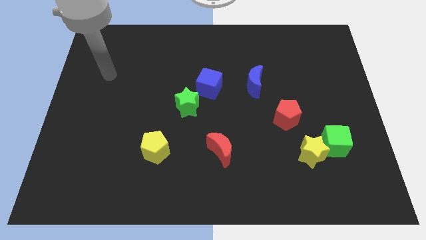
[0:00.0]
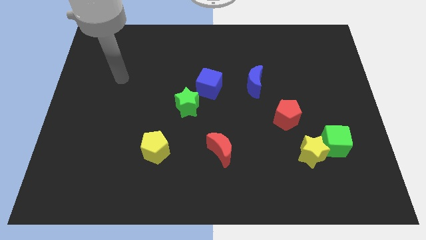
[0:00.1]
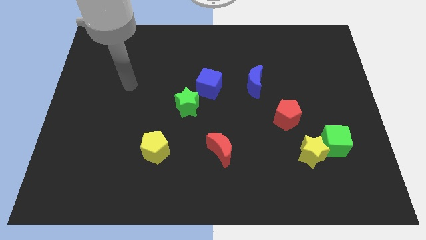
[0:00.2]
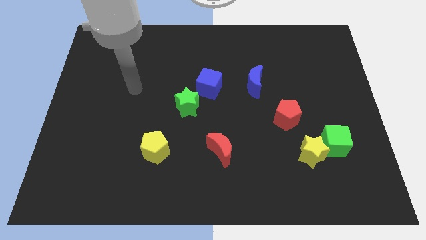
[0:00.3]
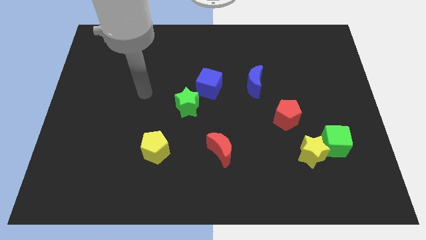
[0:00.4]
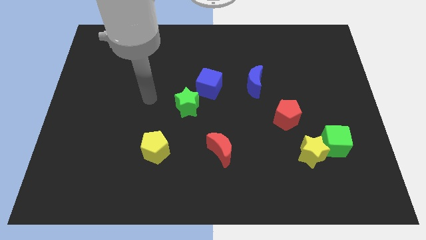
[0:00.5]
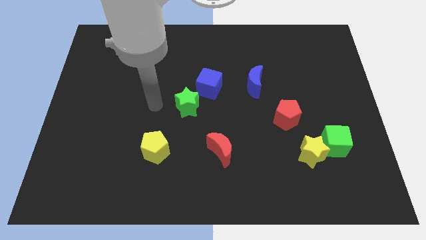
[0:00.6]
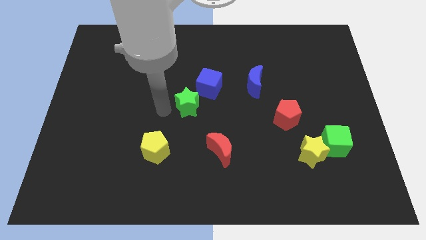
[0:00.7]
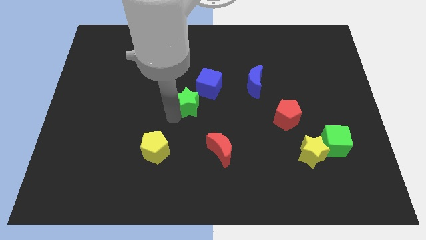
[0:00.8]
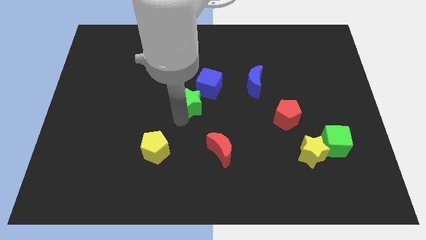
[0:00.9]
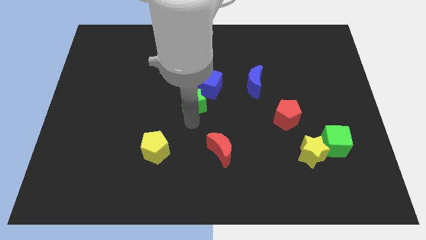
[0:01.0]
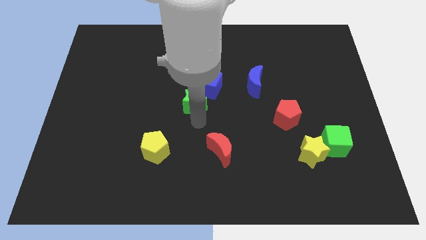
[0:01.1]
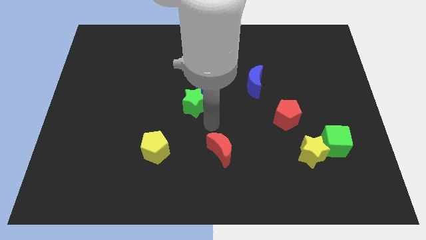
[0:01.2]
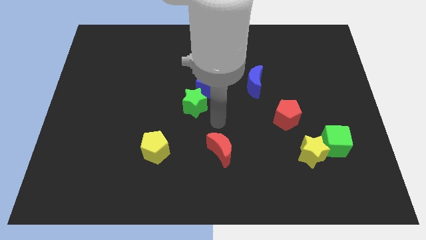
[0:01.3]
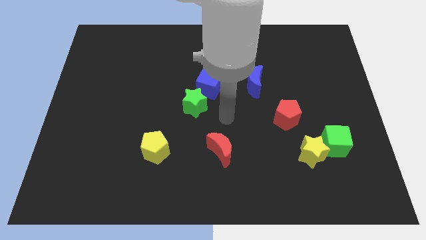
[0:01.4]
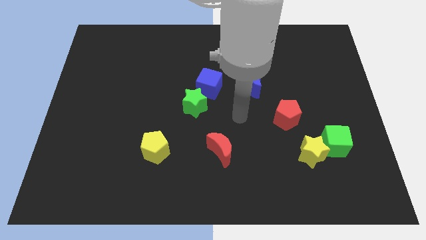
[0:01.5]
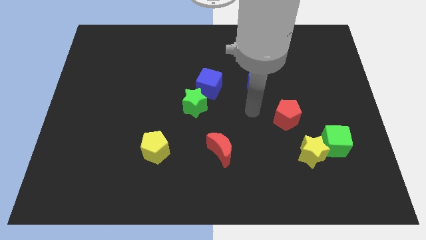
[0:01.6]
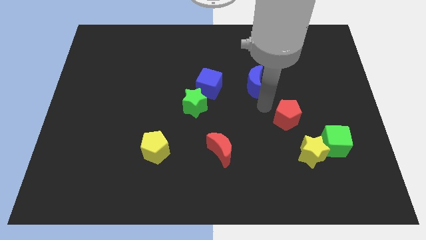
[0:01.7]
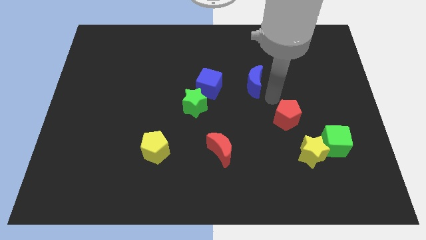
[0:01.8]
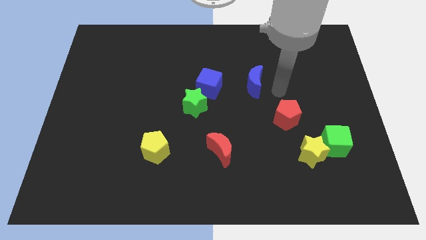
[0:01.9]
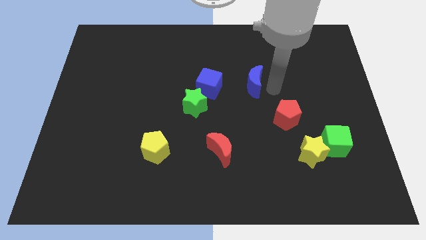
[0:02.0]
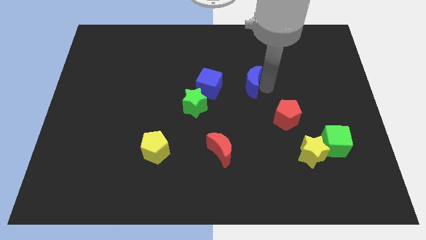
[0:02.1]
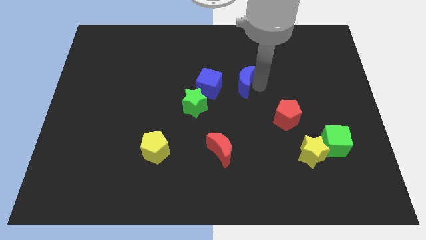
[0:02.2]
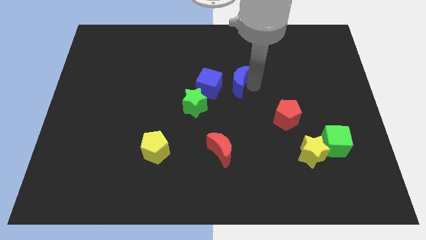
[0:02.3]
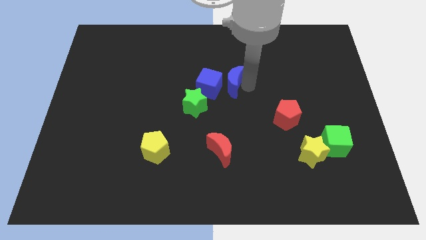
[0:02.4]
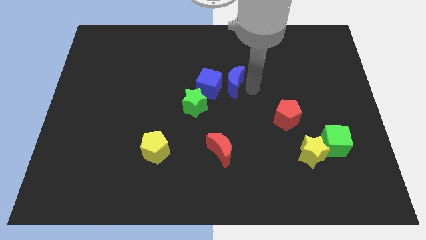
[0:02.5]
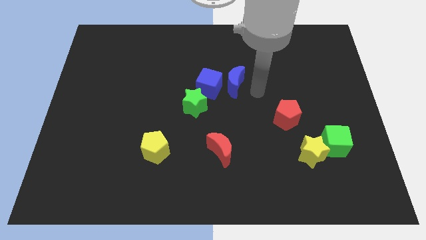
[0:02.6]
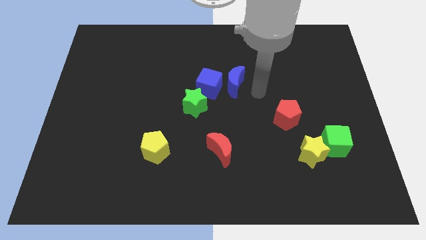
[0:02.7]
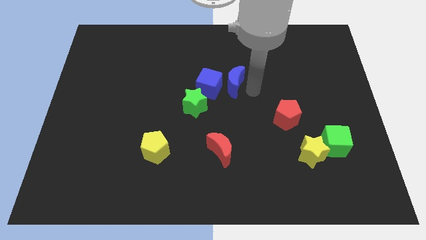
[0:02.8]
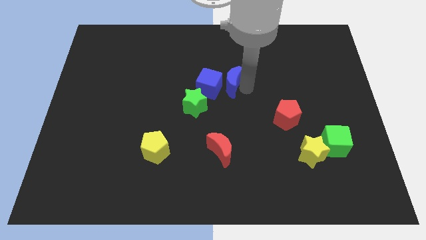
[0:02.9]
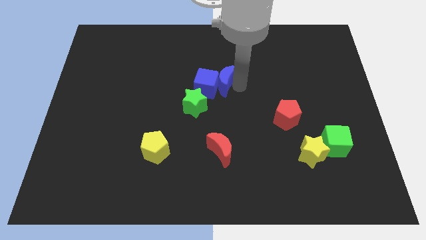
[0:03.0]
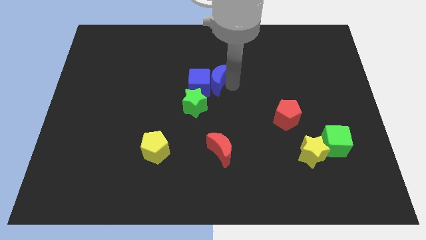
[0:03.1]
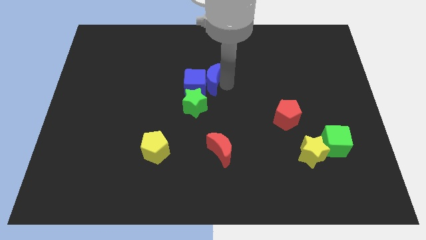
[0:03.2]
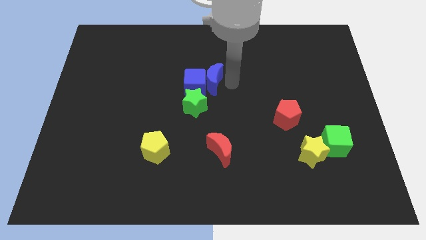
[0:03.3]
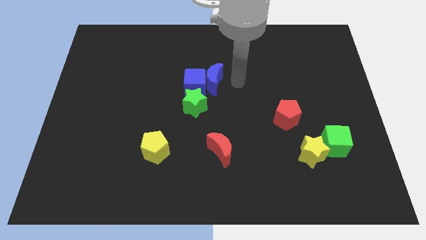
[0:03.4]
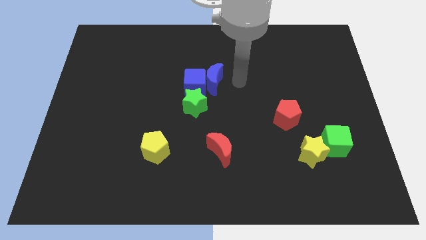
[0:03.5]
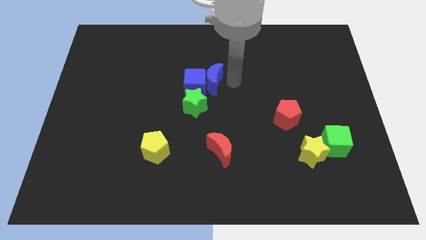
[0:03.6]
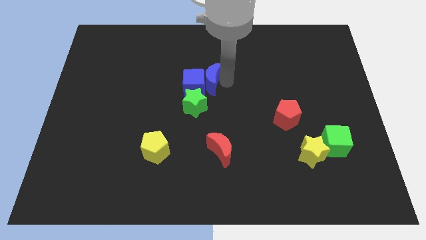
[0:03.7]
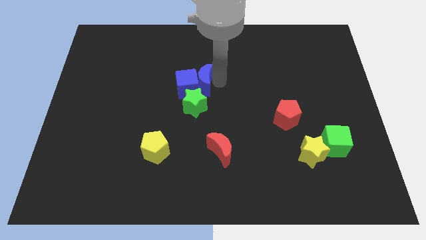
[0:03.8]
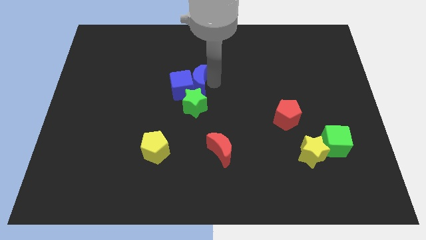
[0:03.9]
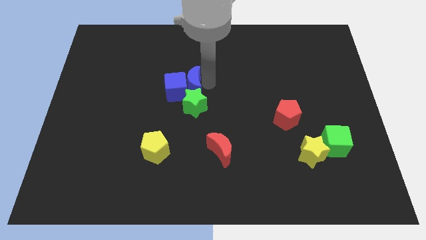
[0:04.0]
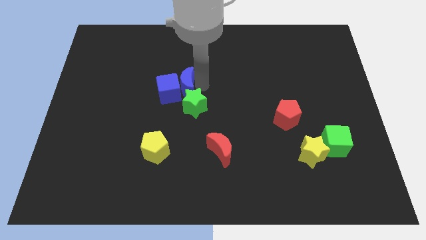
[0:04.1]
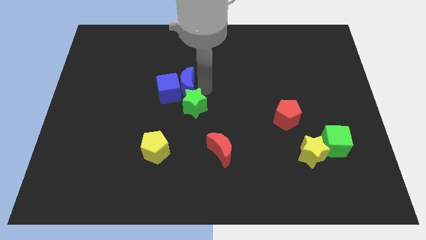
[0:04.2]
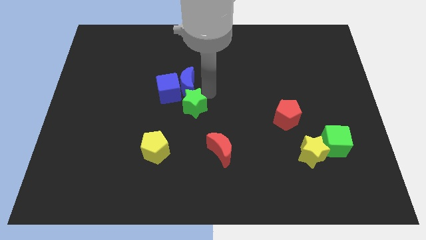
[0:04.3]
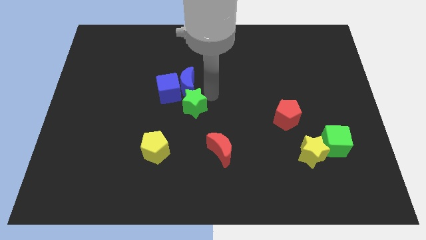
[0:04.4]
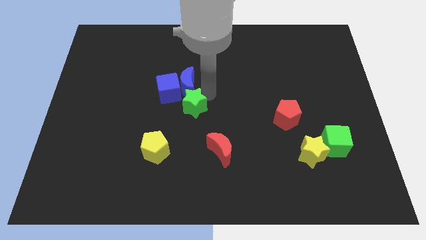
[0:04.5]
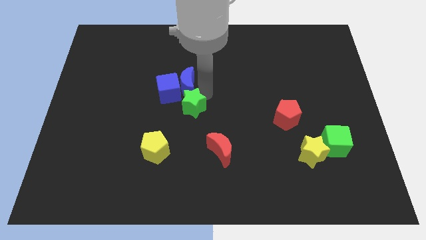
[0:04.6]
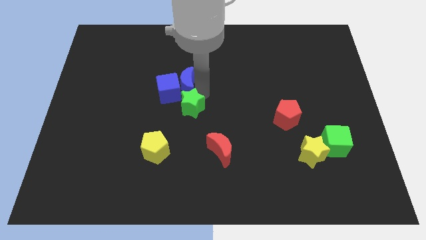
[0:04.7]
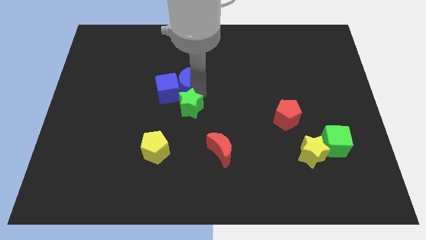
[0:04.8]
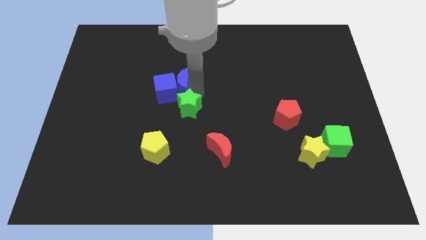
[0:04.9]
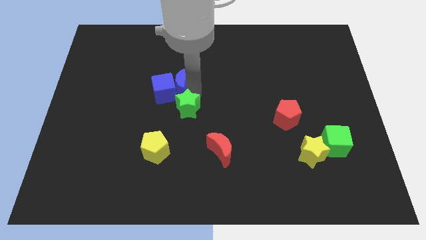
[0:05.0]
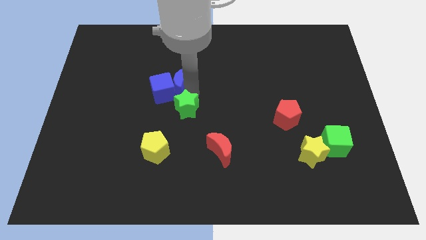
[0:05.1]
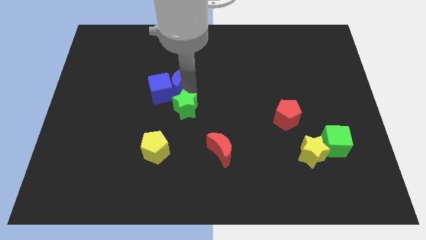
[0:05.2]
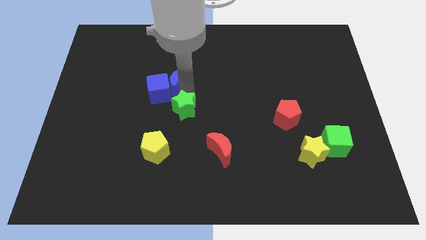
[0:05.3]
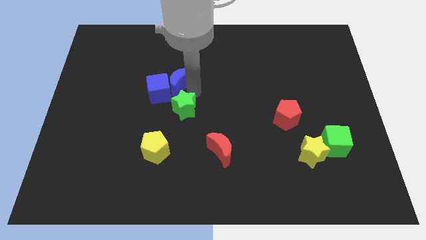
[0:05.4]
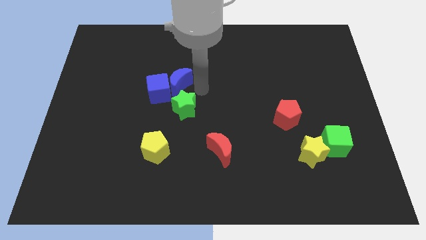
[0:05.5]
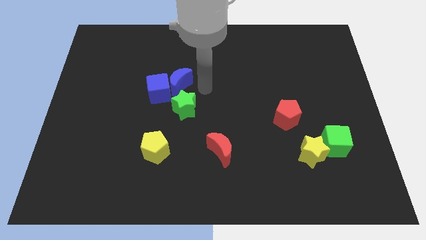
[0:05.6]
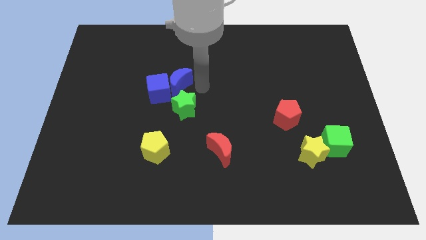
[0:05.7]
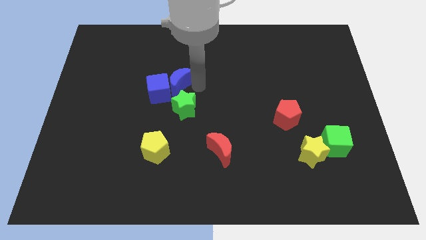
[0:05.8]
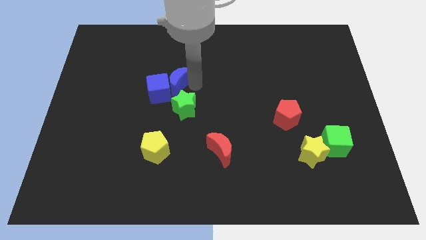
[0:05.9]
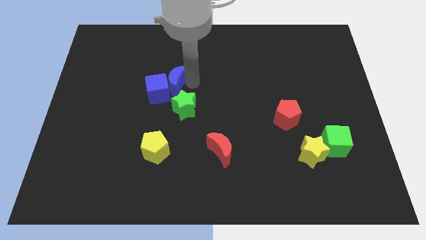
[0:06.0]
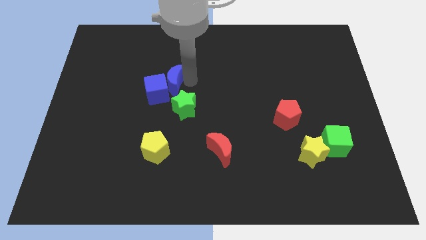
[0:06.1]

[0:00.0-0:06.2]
push the blue moon left

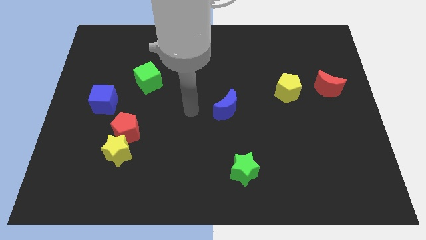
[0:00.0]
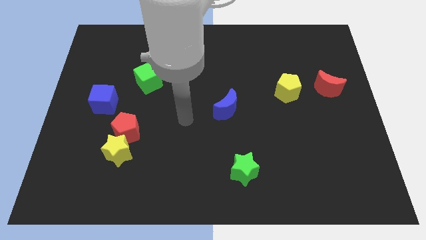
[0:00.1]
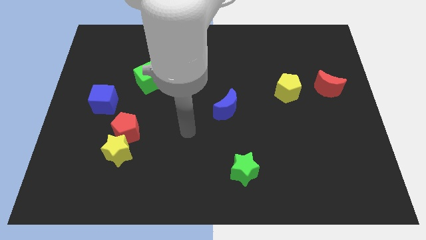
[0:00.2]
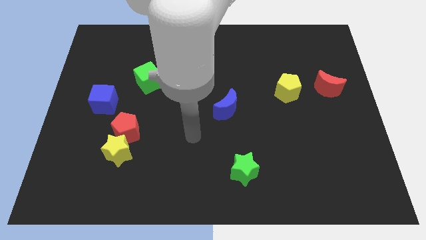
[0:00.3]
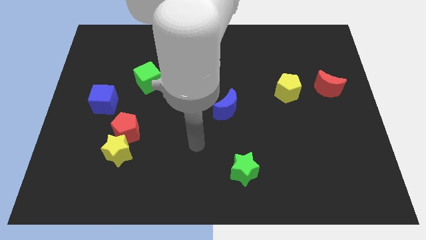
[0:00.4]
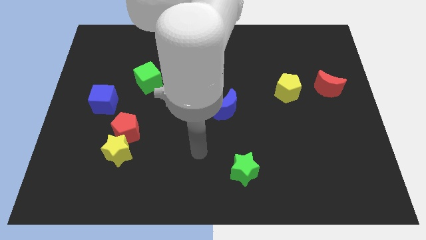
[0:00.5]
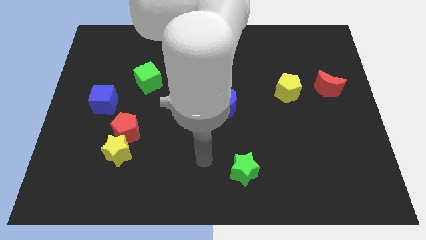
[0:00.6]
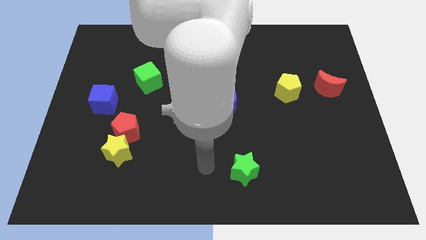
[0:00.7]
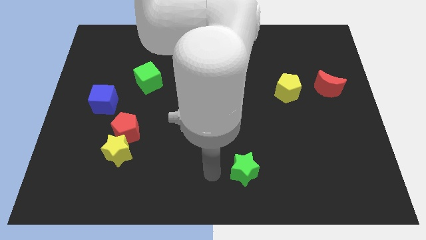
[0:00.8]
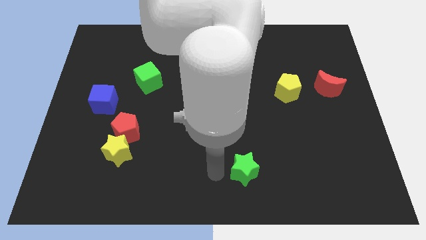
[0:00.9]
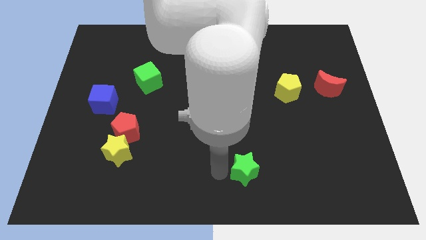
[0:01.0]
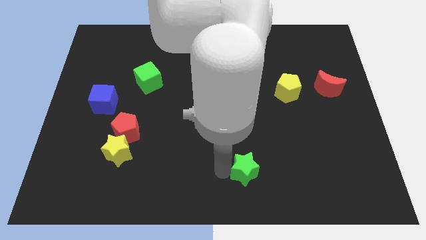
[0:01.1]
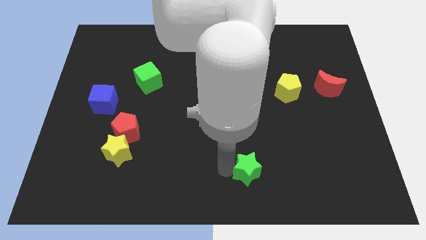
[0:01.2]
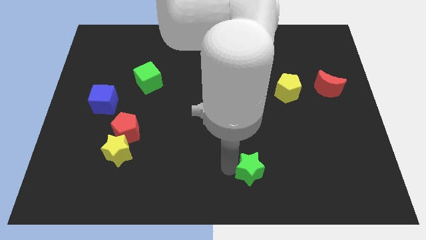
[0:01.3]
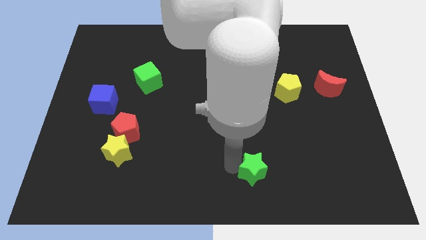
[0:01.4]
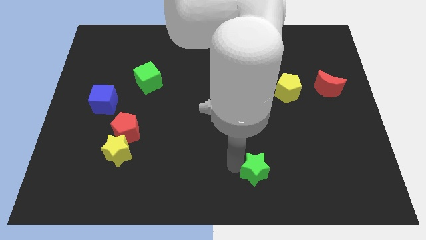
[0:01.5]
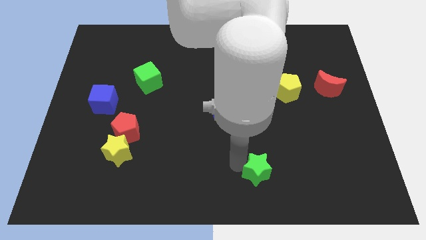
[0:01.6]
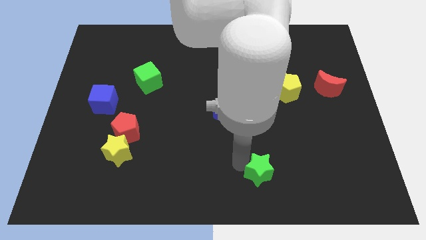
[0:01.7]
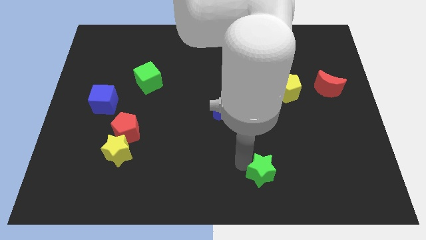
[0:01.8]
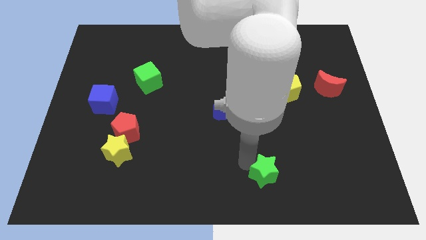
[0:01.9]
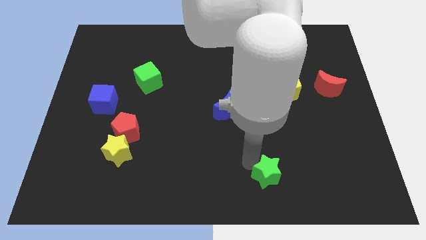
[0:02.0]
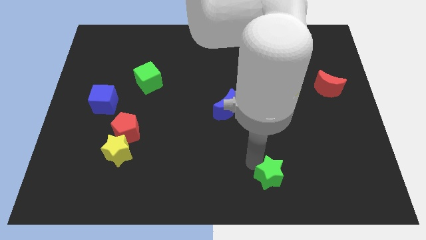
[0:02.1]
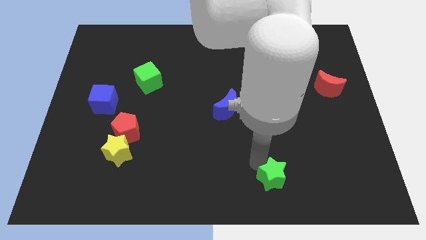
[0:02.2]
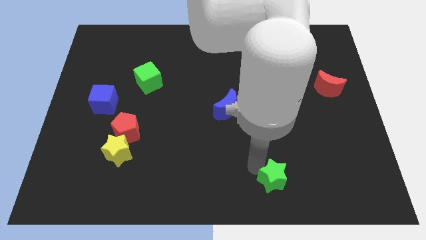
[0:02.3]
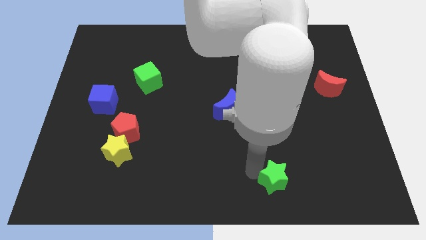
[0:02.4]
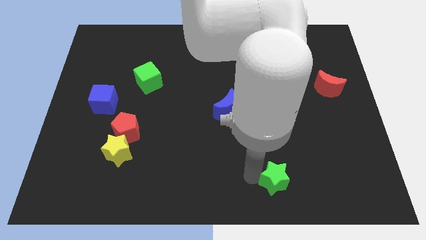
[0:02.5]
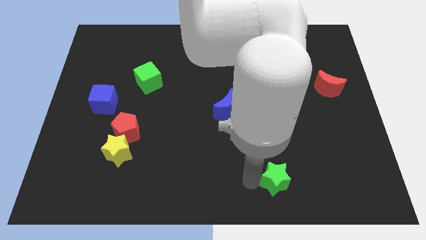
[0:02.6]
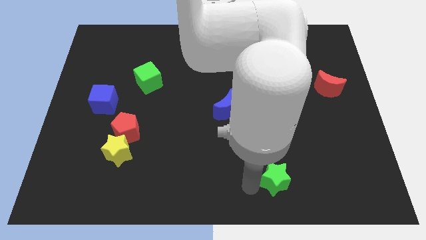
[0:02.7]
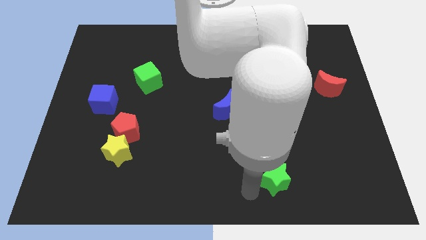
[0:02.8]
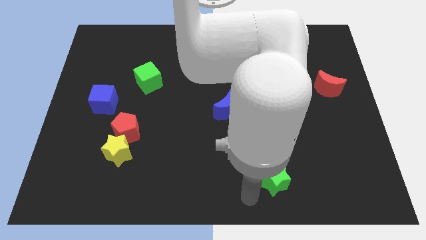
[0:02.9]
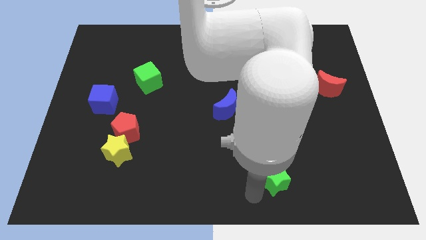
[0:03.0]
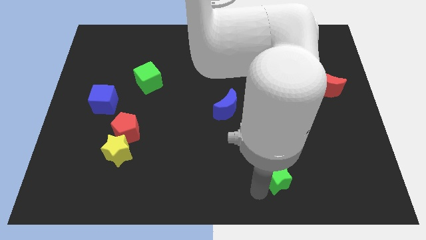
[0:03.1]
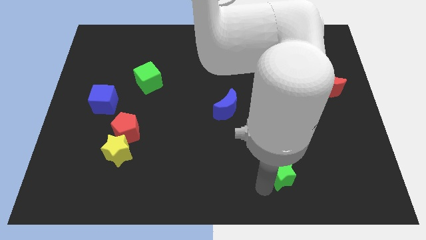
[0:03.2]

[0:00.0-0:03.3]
slightly slide the green star right
